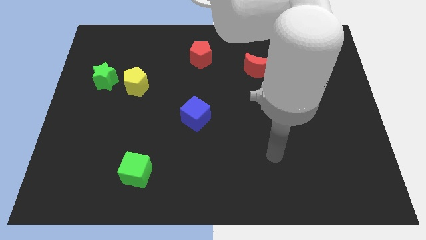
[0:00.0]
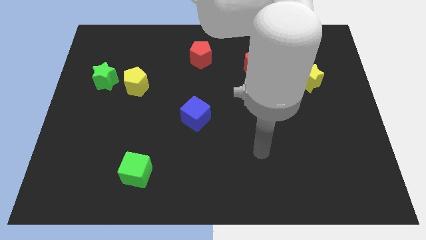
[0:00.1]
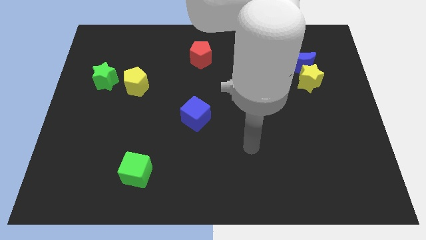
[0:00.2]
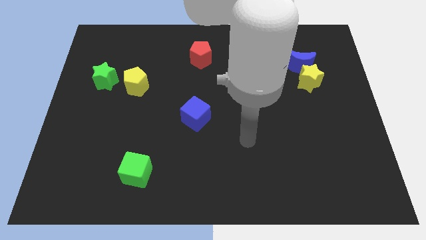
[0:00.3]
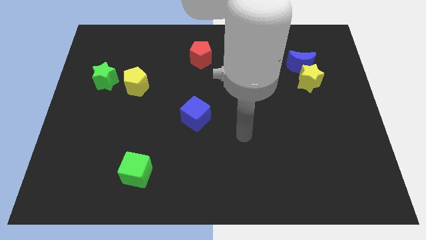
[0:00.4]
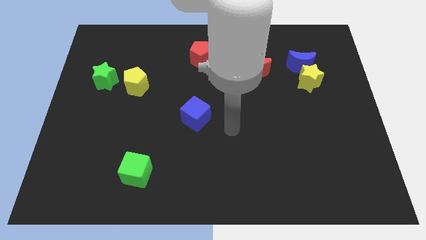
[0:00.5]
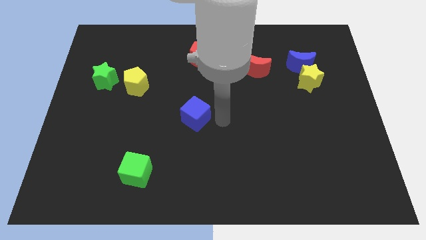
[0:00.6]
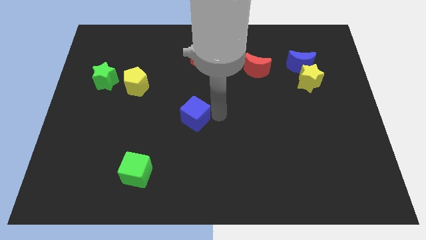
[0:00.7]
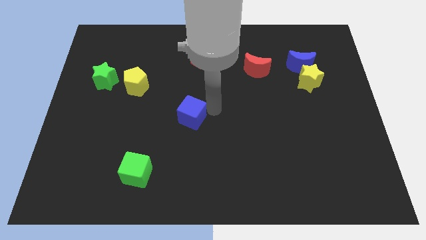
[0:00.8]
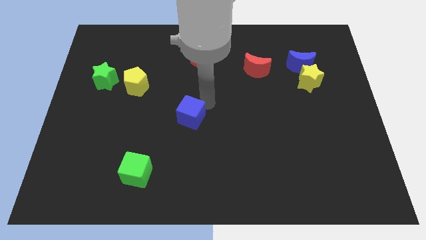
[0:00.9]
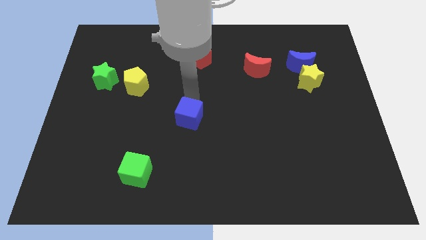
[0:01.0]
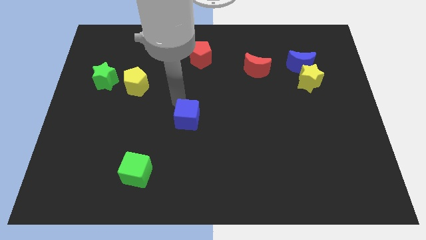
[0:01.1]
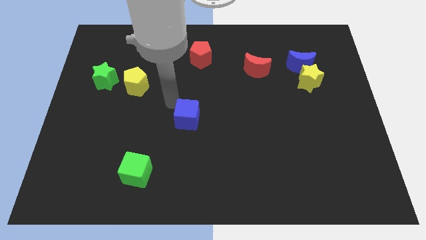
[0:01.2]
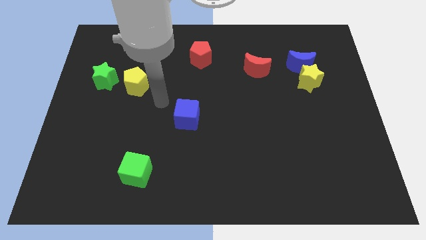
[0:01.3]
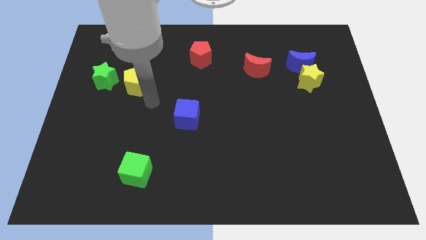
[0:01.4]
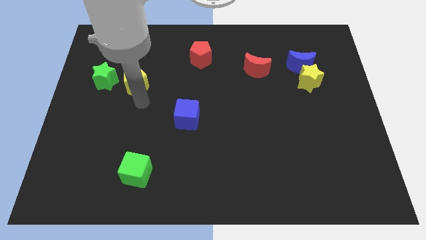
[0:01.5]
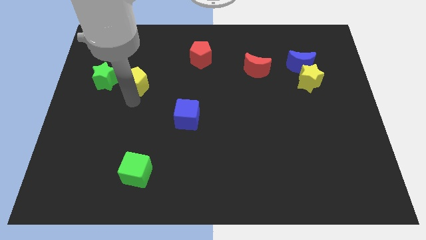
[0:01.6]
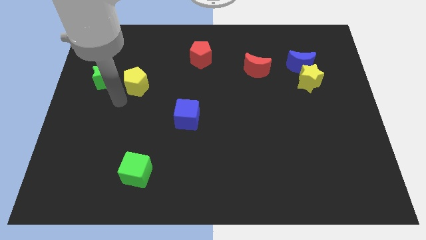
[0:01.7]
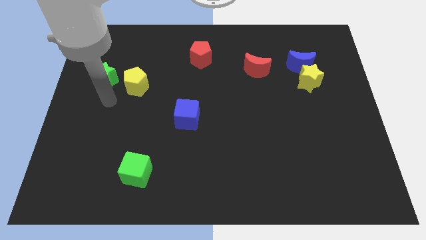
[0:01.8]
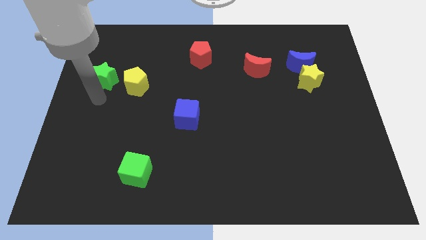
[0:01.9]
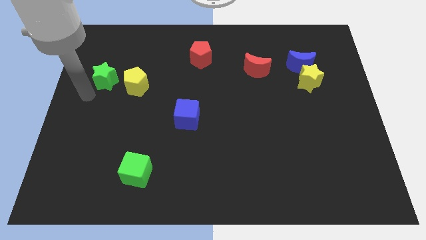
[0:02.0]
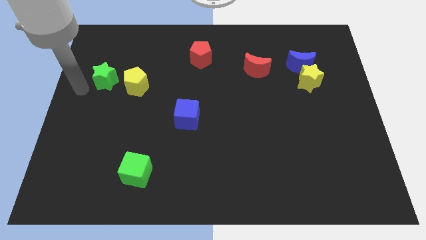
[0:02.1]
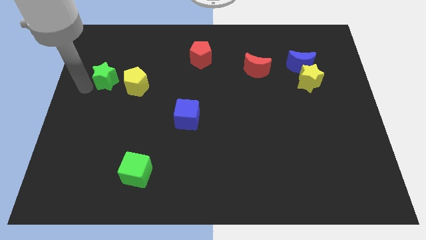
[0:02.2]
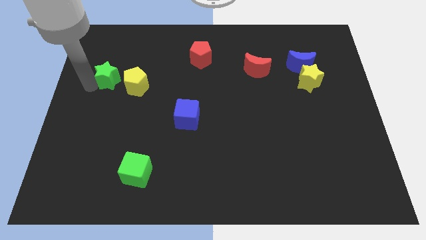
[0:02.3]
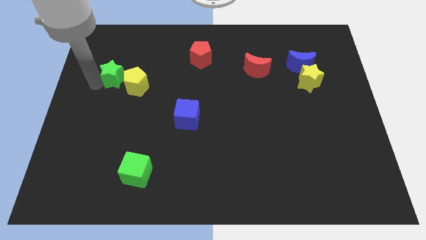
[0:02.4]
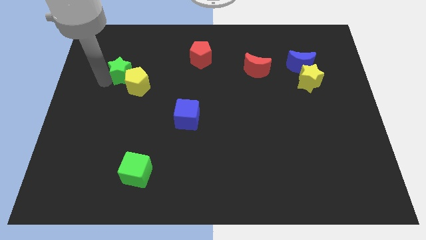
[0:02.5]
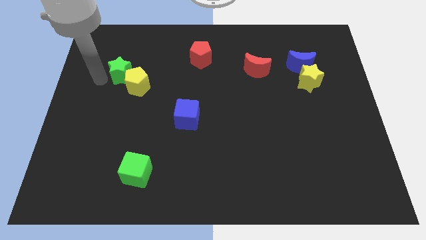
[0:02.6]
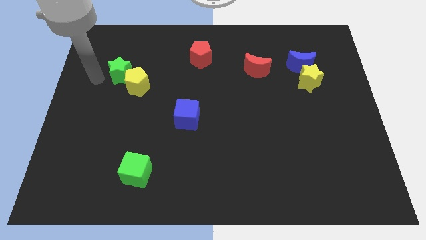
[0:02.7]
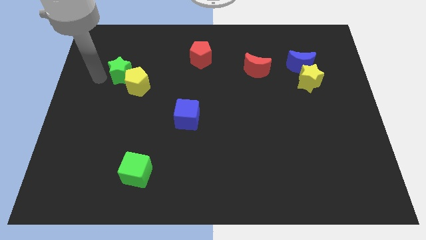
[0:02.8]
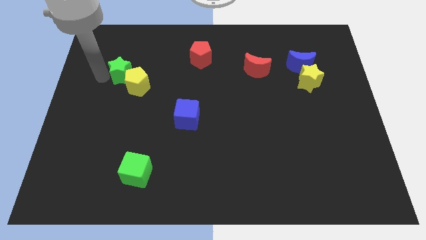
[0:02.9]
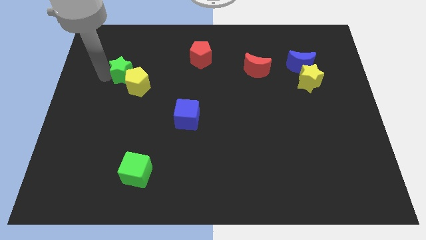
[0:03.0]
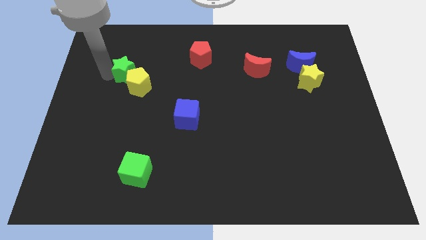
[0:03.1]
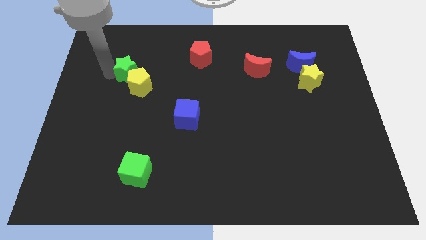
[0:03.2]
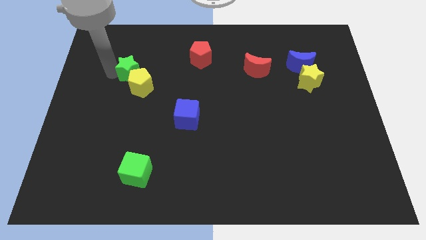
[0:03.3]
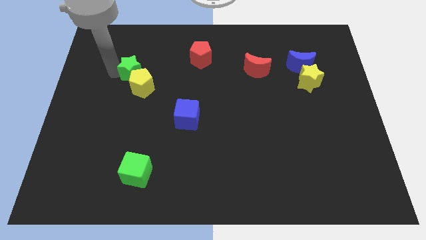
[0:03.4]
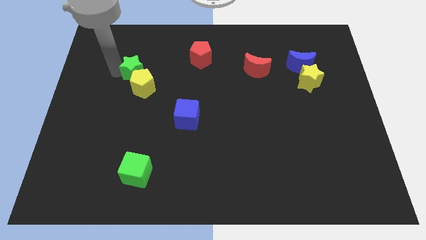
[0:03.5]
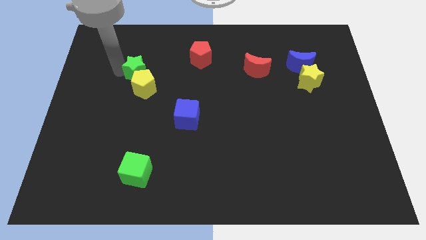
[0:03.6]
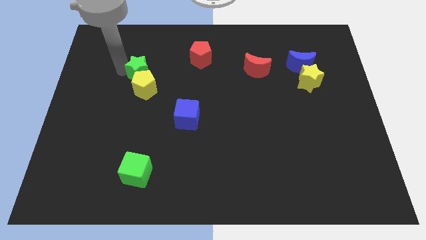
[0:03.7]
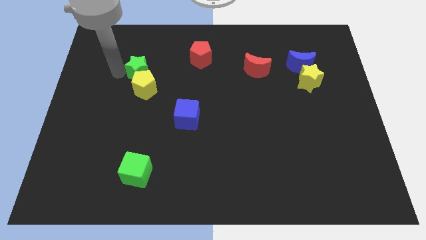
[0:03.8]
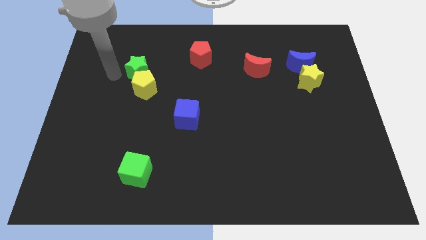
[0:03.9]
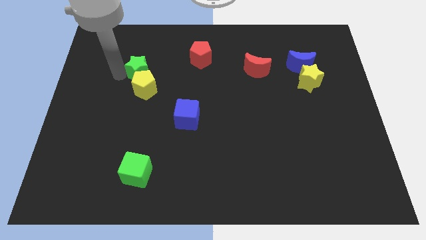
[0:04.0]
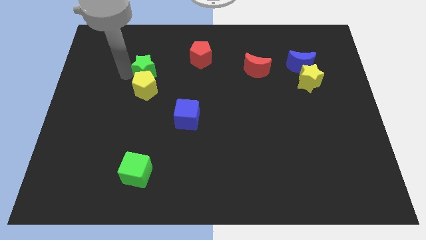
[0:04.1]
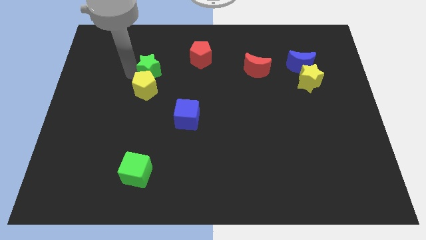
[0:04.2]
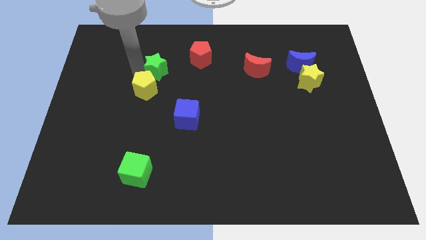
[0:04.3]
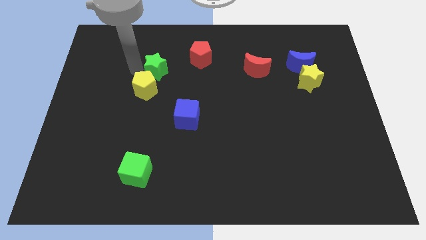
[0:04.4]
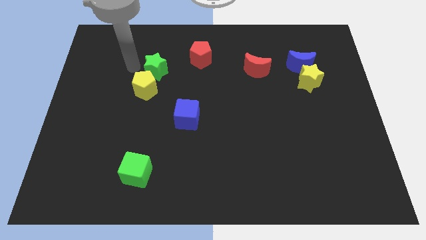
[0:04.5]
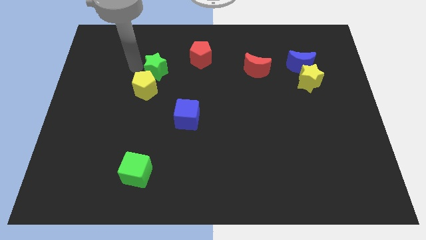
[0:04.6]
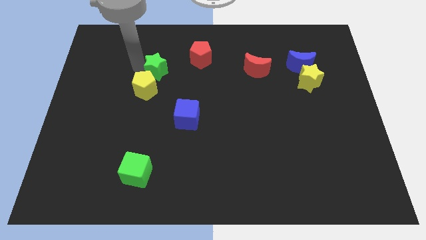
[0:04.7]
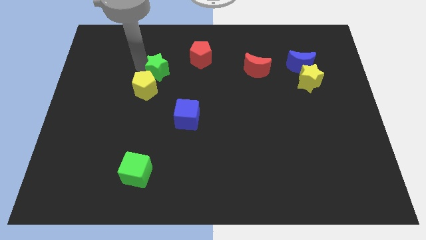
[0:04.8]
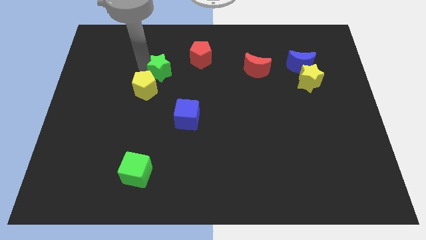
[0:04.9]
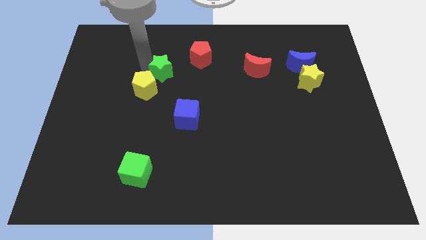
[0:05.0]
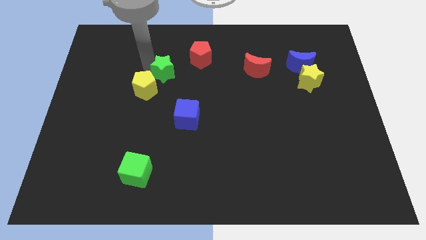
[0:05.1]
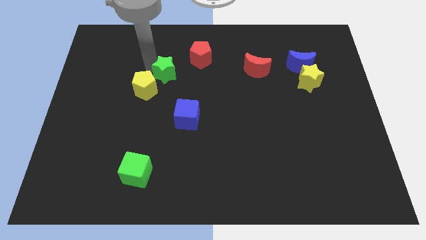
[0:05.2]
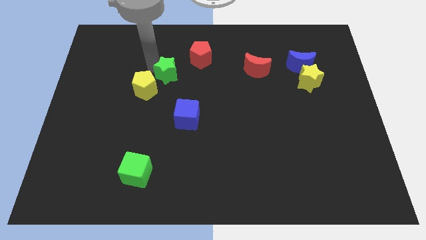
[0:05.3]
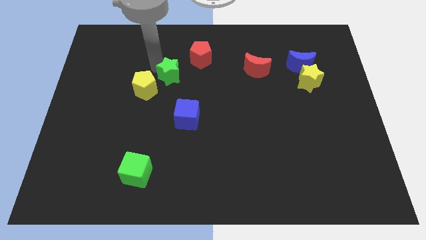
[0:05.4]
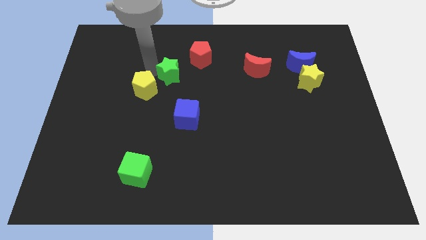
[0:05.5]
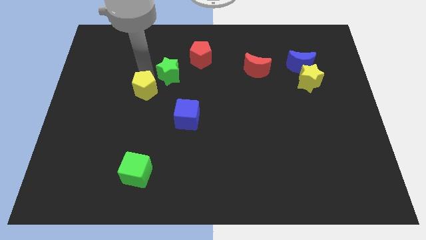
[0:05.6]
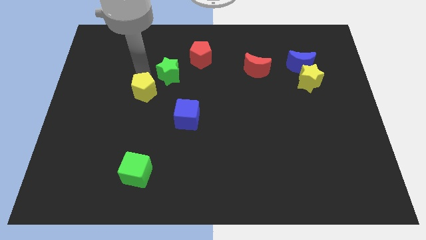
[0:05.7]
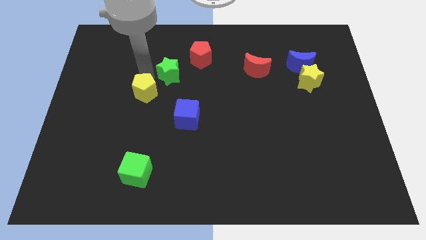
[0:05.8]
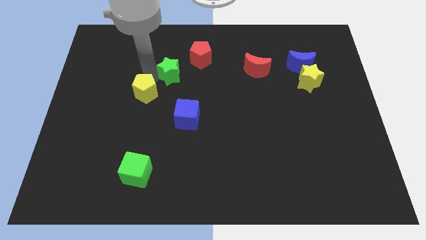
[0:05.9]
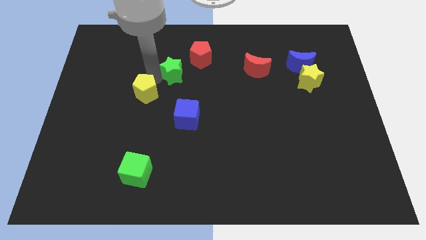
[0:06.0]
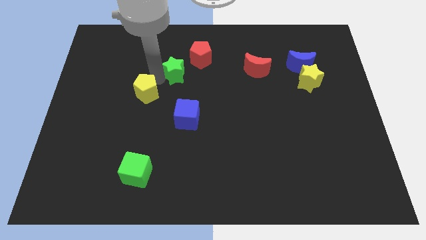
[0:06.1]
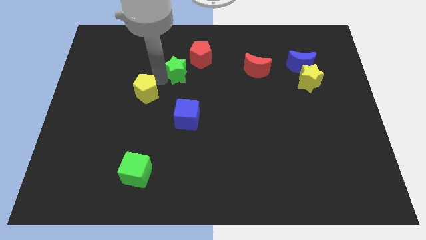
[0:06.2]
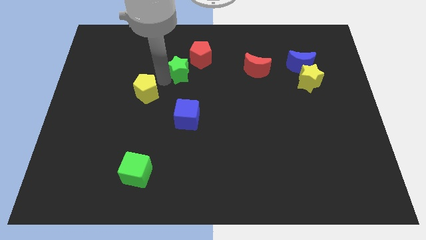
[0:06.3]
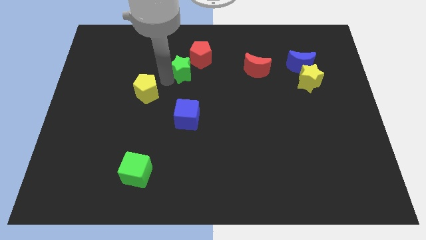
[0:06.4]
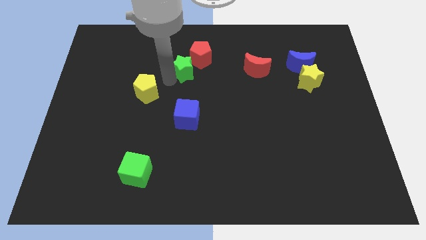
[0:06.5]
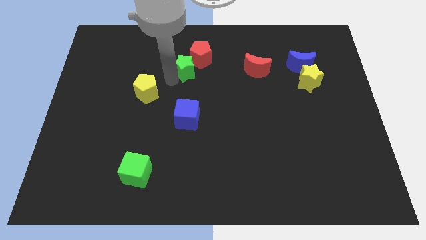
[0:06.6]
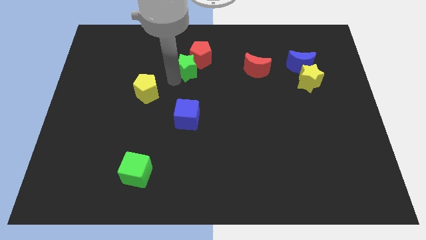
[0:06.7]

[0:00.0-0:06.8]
slide the green star right

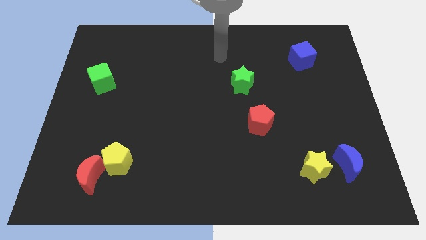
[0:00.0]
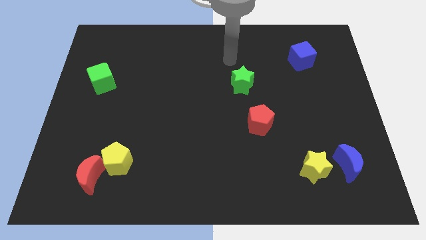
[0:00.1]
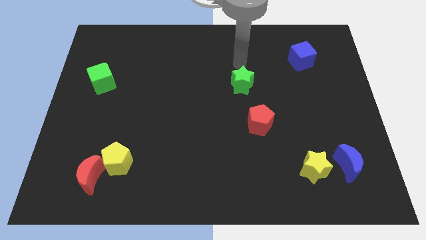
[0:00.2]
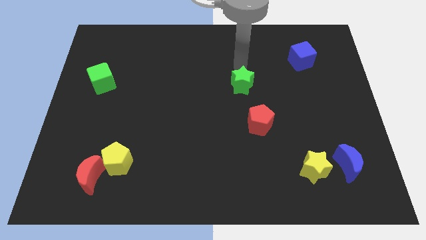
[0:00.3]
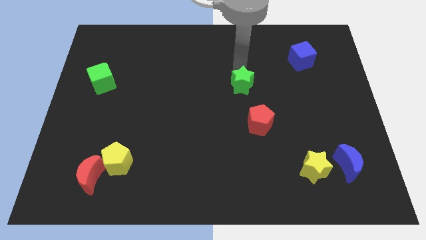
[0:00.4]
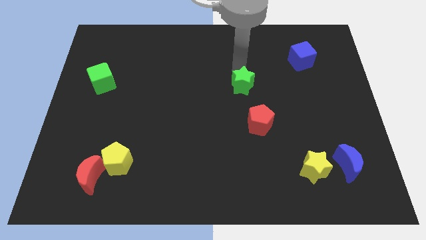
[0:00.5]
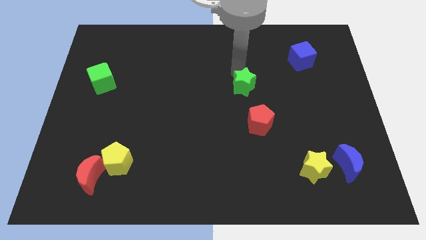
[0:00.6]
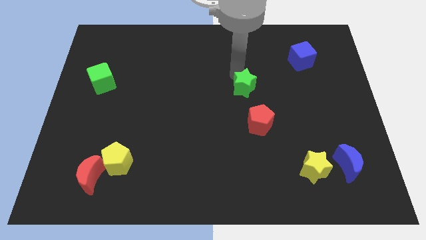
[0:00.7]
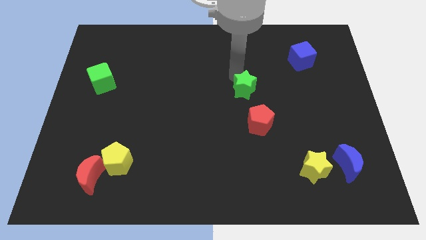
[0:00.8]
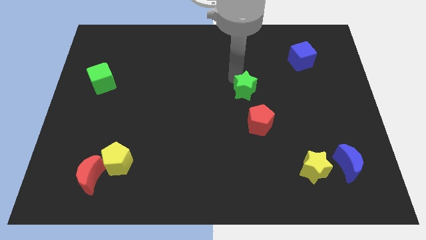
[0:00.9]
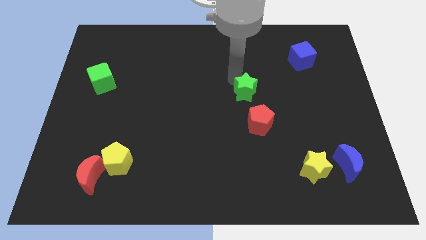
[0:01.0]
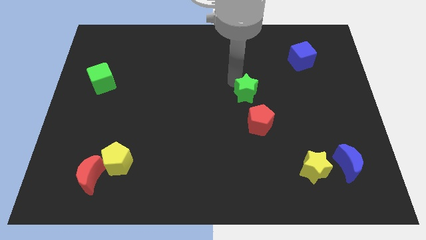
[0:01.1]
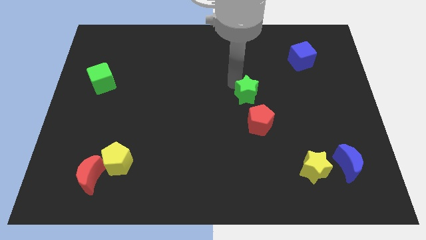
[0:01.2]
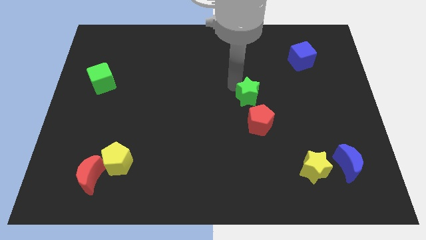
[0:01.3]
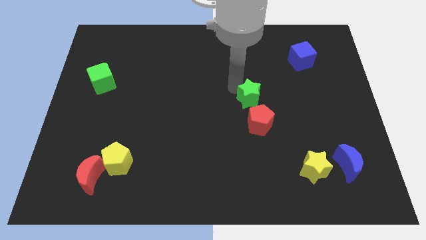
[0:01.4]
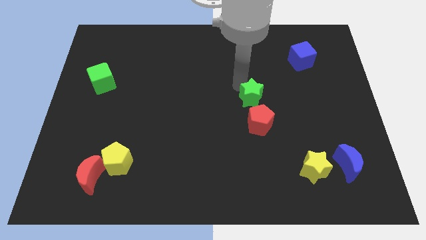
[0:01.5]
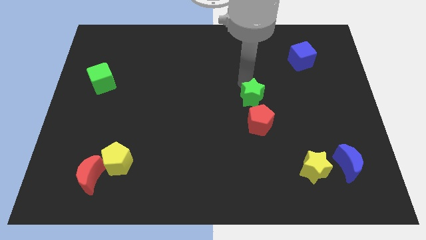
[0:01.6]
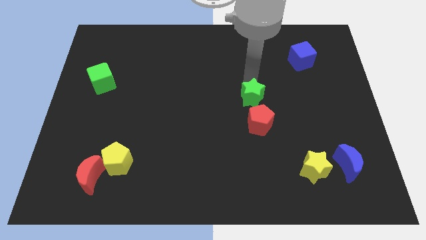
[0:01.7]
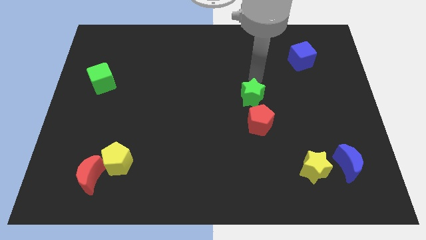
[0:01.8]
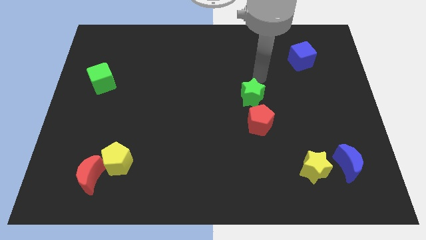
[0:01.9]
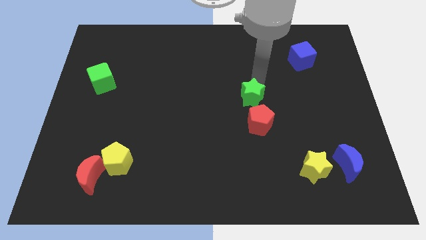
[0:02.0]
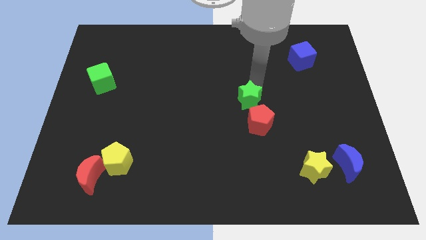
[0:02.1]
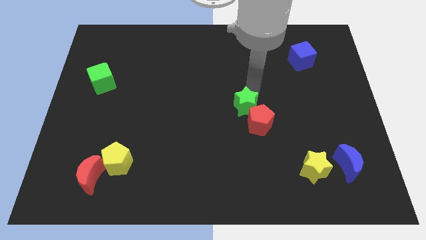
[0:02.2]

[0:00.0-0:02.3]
slightly slide the green star down
